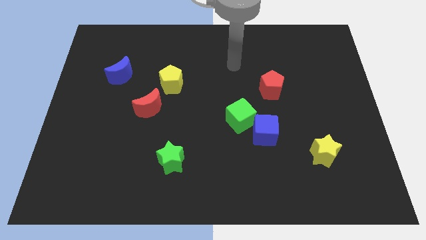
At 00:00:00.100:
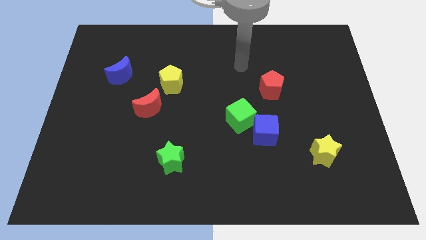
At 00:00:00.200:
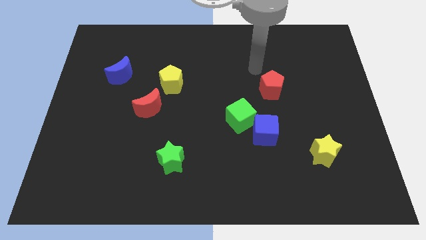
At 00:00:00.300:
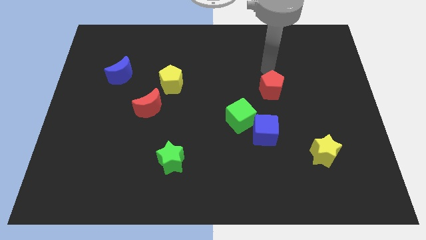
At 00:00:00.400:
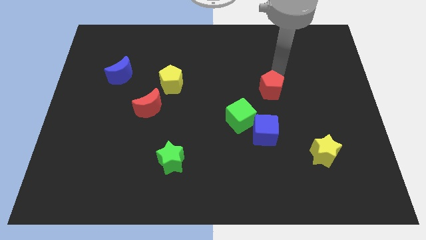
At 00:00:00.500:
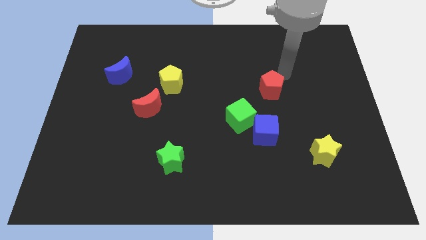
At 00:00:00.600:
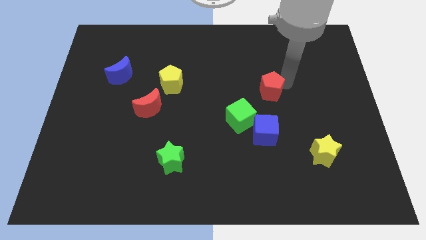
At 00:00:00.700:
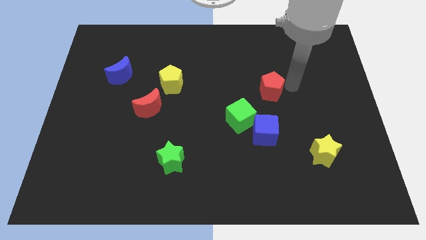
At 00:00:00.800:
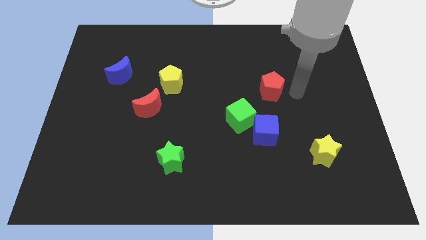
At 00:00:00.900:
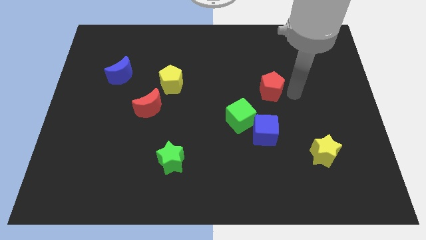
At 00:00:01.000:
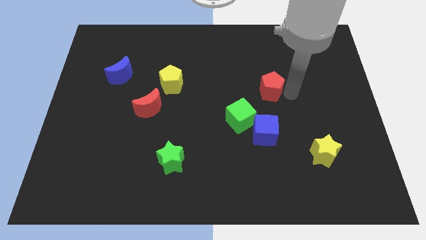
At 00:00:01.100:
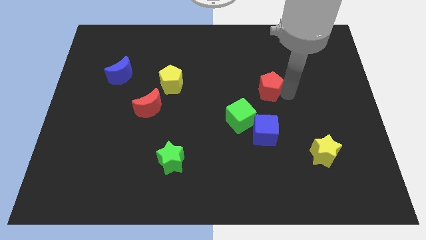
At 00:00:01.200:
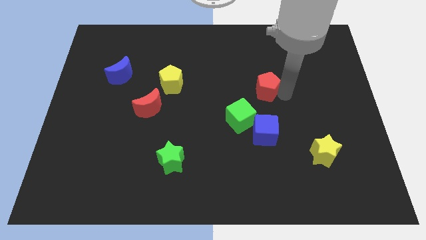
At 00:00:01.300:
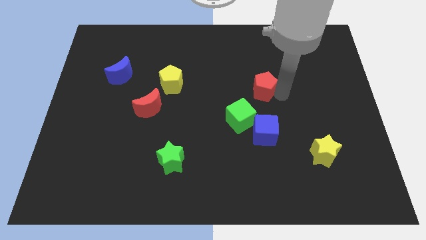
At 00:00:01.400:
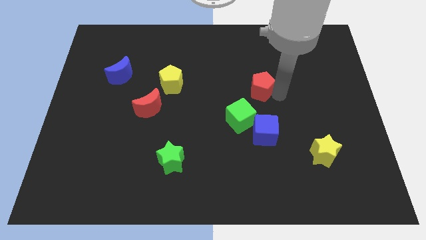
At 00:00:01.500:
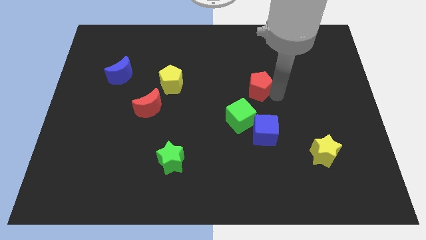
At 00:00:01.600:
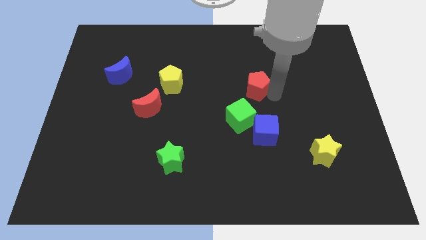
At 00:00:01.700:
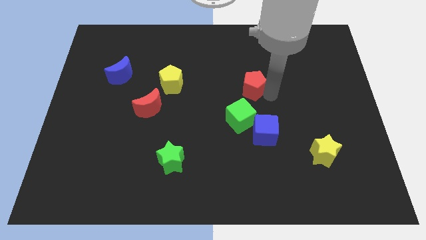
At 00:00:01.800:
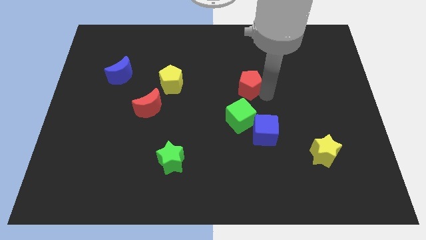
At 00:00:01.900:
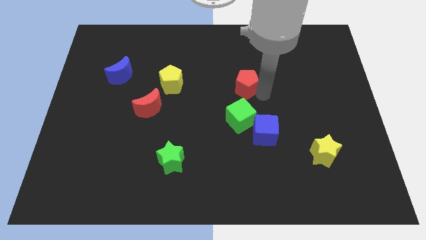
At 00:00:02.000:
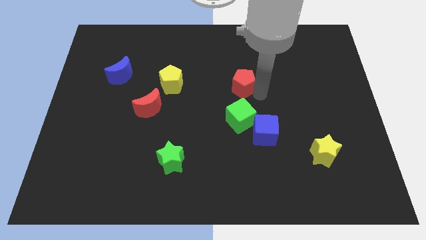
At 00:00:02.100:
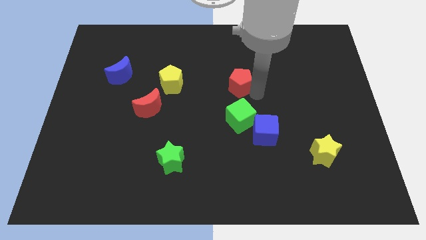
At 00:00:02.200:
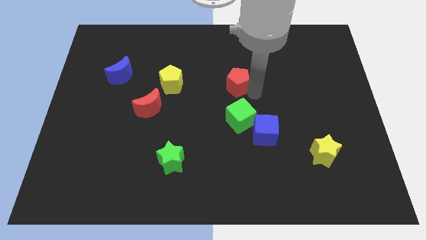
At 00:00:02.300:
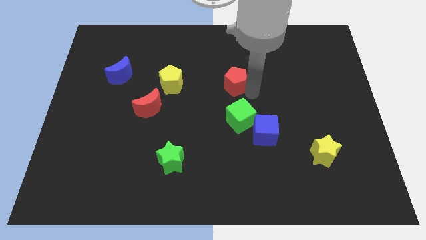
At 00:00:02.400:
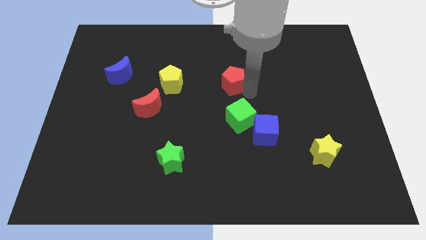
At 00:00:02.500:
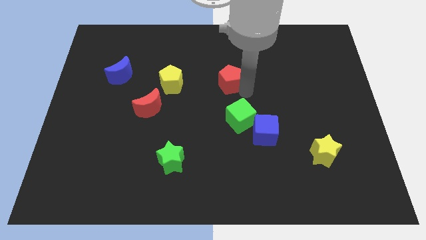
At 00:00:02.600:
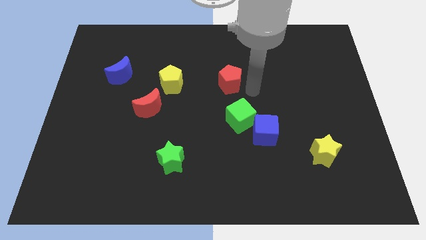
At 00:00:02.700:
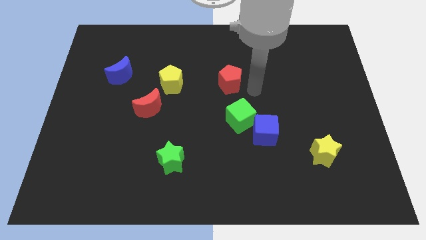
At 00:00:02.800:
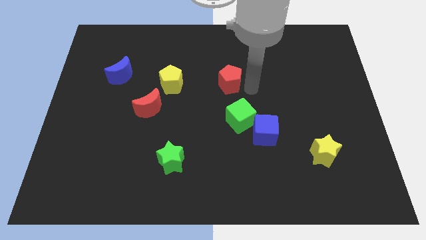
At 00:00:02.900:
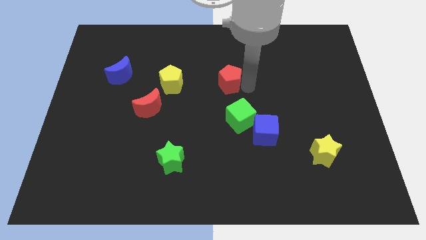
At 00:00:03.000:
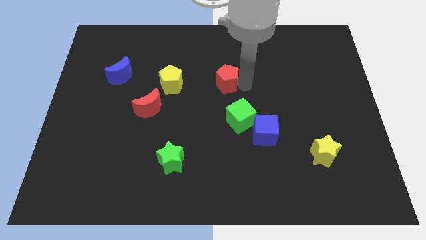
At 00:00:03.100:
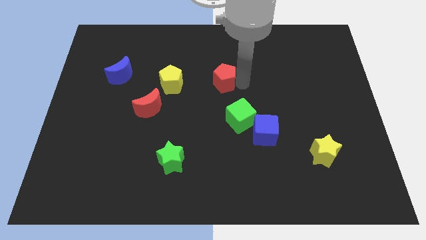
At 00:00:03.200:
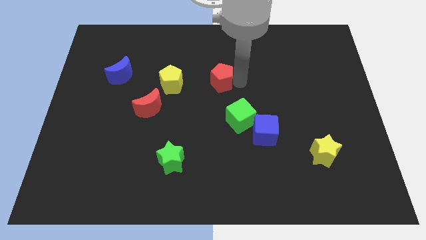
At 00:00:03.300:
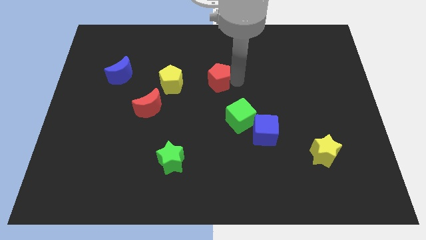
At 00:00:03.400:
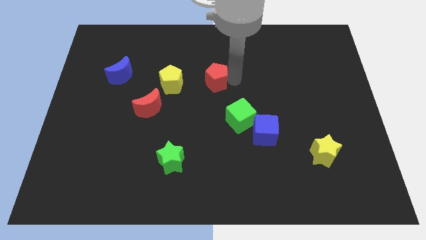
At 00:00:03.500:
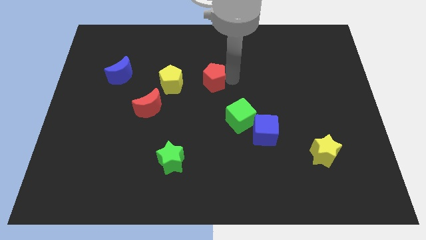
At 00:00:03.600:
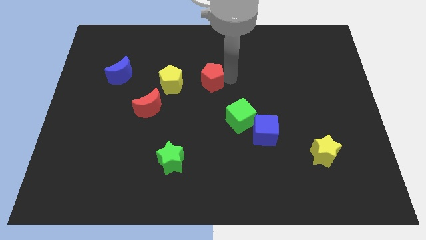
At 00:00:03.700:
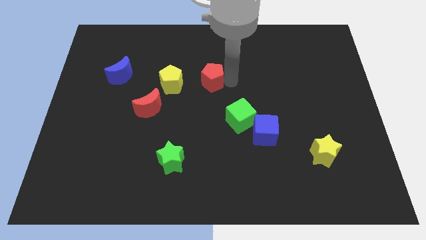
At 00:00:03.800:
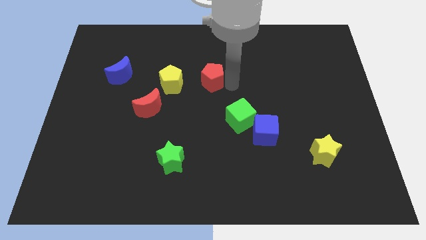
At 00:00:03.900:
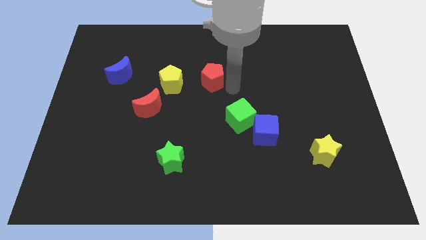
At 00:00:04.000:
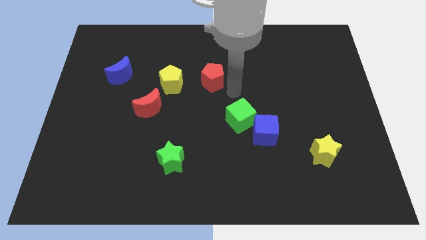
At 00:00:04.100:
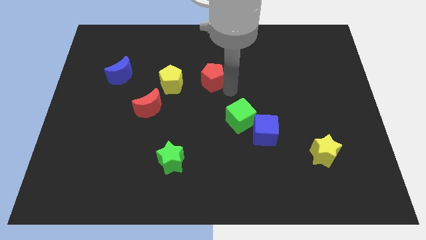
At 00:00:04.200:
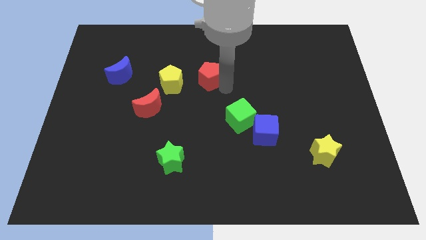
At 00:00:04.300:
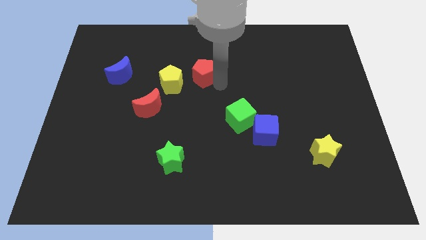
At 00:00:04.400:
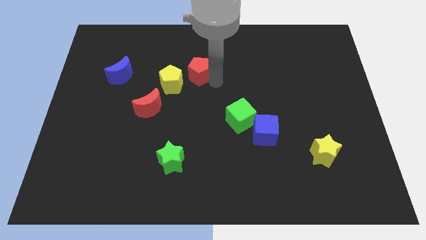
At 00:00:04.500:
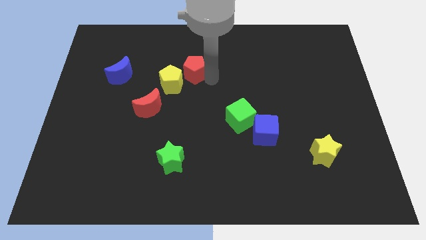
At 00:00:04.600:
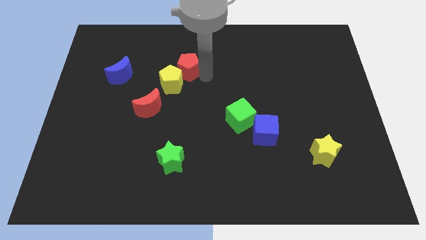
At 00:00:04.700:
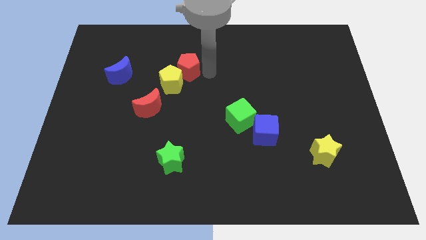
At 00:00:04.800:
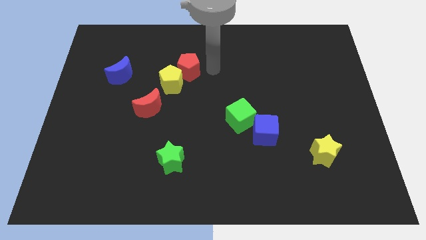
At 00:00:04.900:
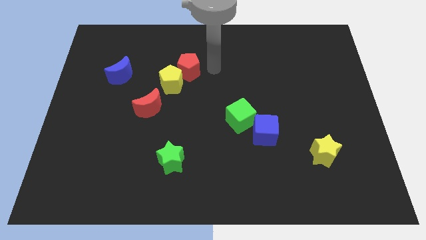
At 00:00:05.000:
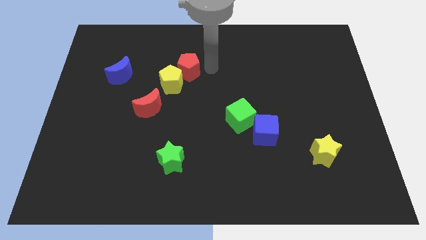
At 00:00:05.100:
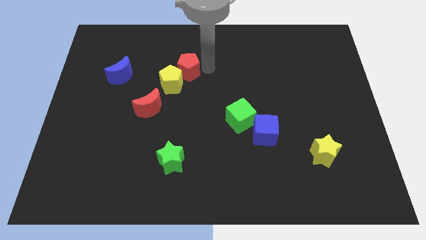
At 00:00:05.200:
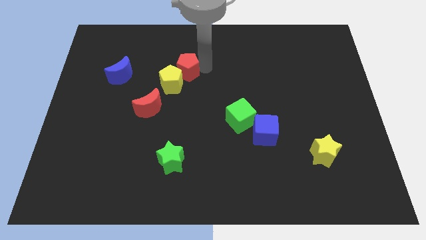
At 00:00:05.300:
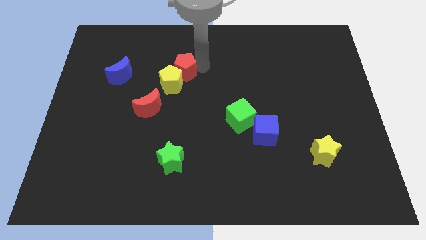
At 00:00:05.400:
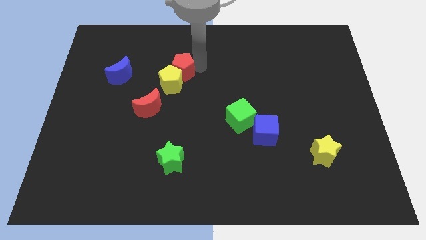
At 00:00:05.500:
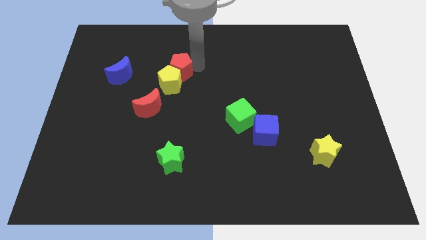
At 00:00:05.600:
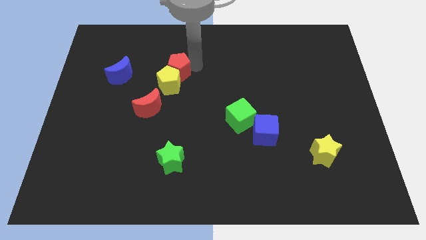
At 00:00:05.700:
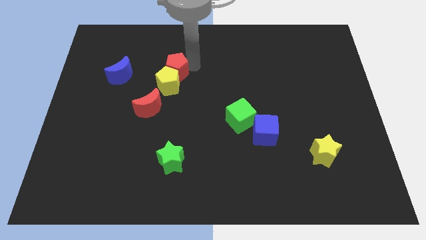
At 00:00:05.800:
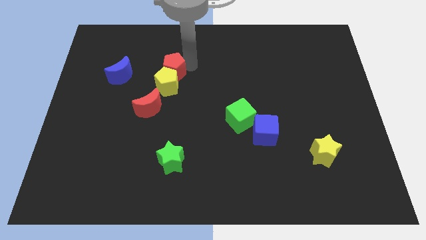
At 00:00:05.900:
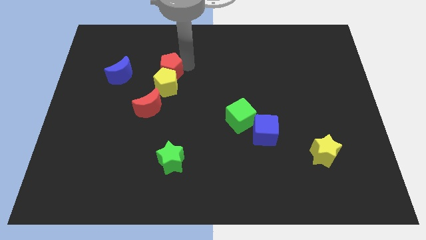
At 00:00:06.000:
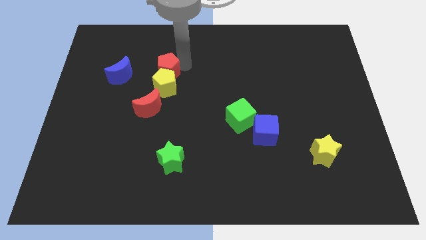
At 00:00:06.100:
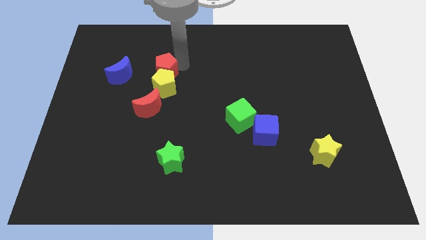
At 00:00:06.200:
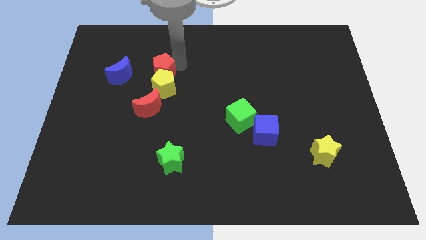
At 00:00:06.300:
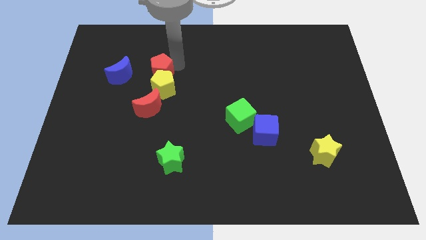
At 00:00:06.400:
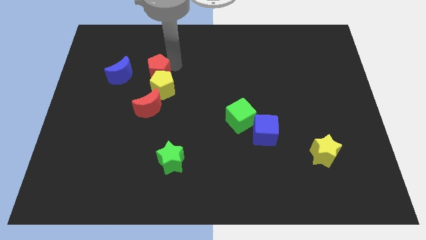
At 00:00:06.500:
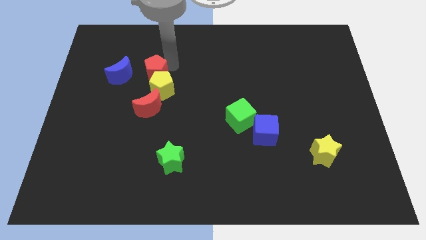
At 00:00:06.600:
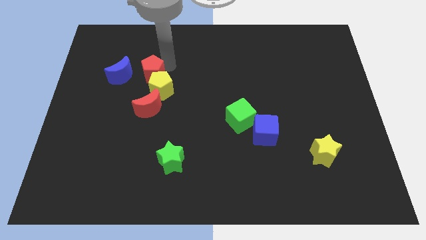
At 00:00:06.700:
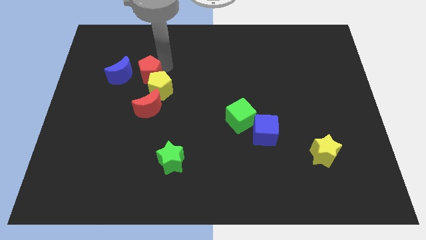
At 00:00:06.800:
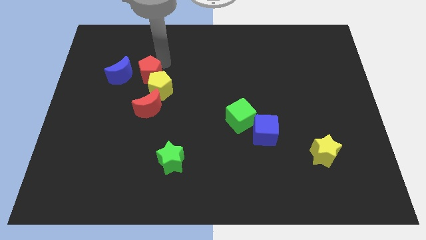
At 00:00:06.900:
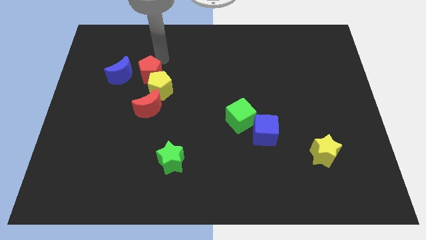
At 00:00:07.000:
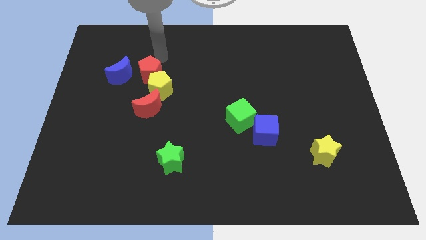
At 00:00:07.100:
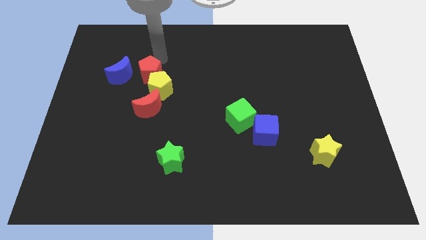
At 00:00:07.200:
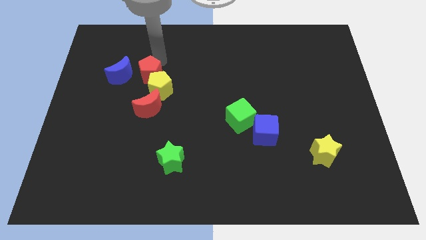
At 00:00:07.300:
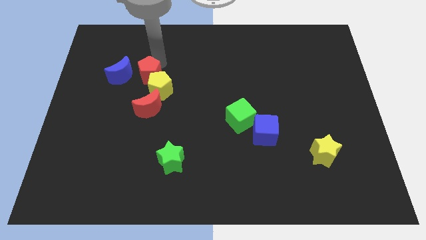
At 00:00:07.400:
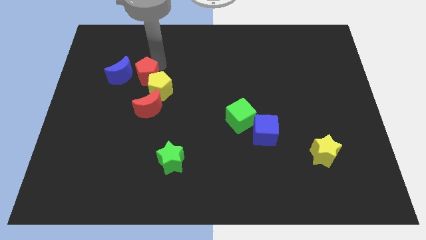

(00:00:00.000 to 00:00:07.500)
move the red pentagon to the left of the yellow pentagon
